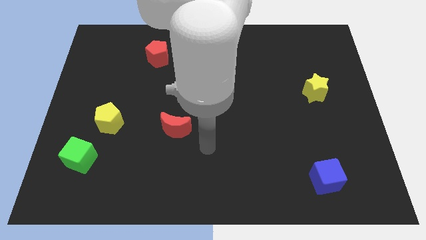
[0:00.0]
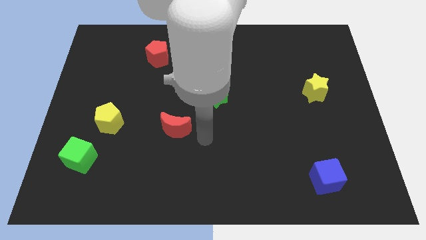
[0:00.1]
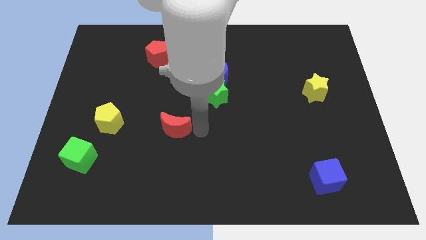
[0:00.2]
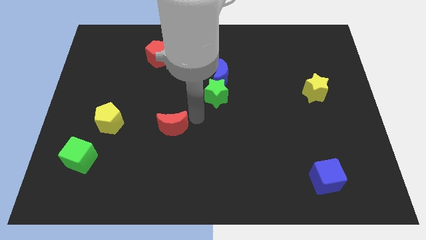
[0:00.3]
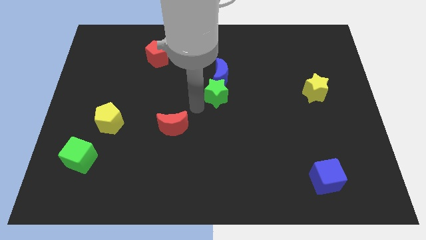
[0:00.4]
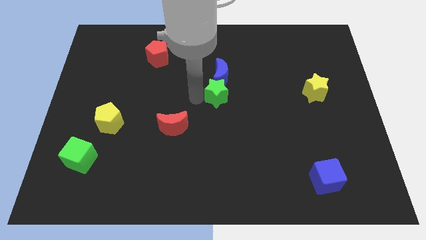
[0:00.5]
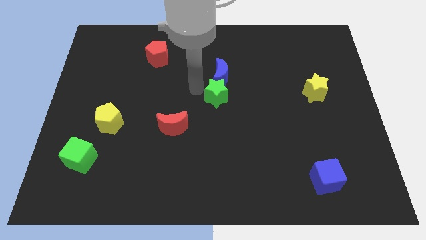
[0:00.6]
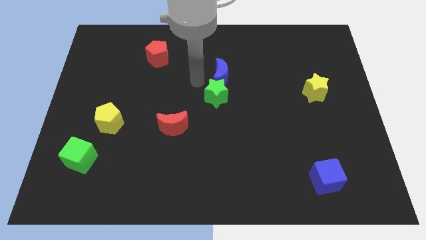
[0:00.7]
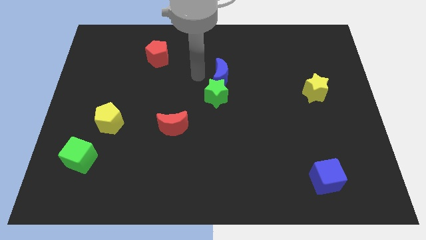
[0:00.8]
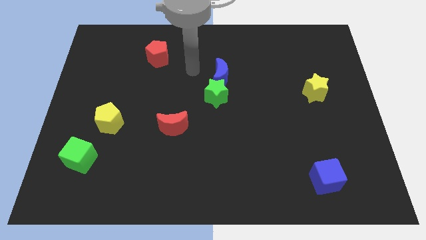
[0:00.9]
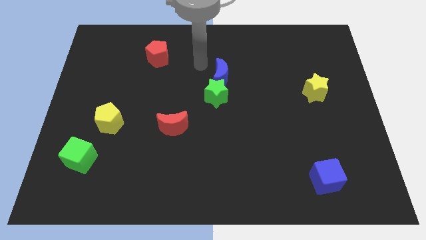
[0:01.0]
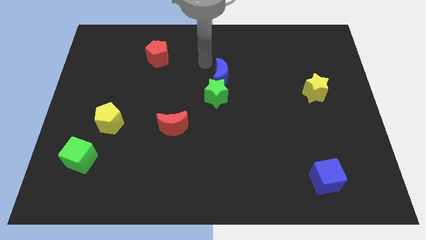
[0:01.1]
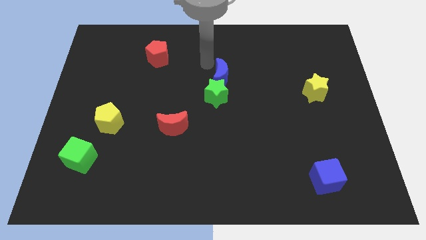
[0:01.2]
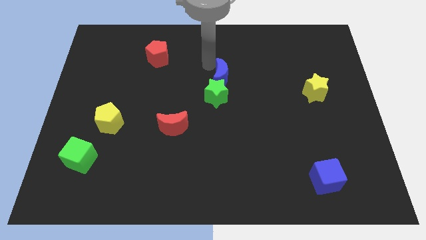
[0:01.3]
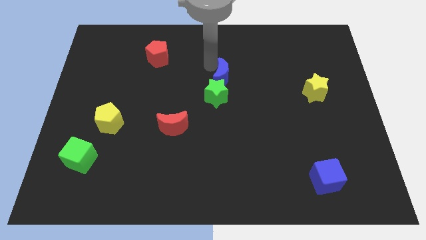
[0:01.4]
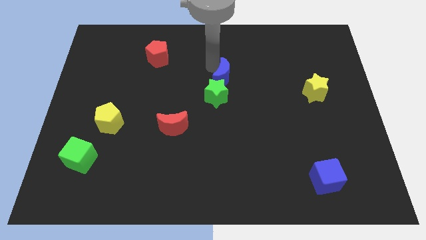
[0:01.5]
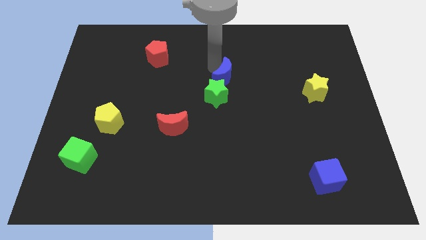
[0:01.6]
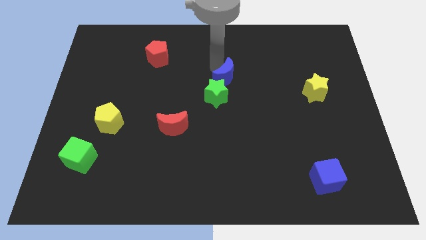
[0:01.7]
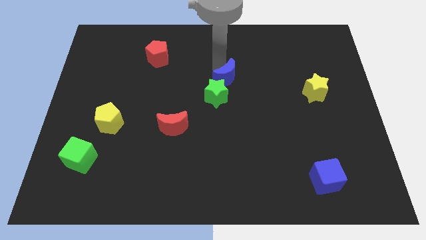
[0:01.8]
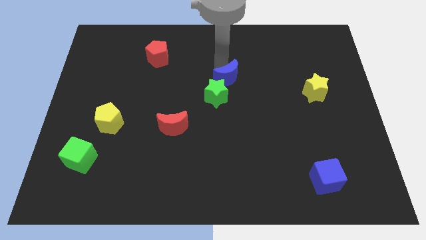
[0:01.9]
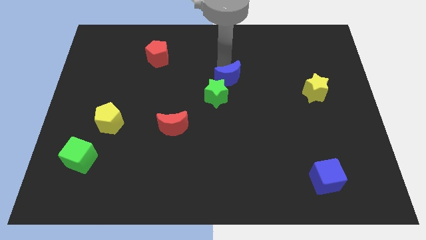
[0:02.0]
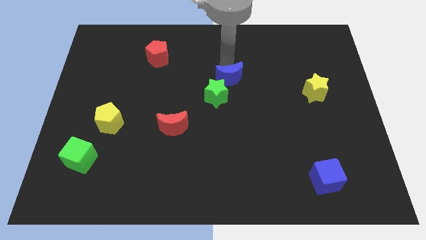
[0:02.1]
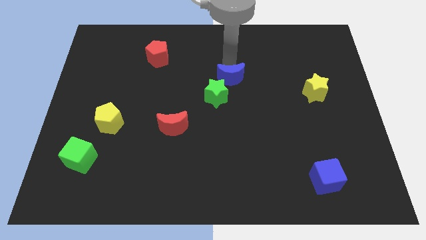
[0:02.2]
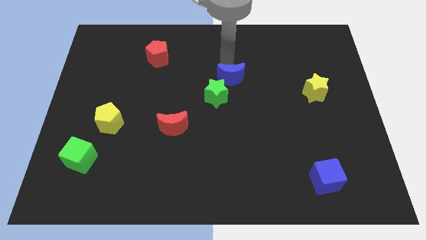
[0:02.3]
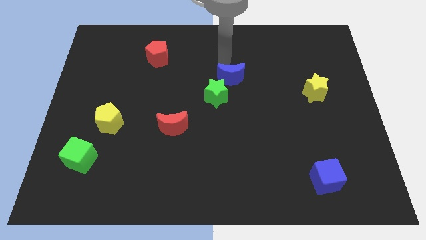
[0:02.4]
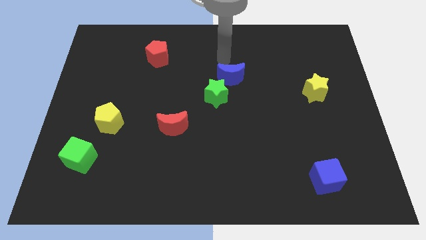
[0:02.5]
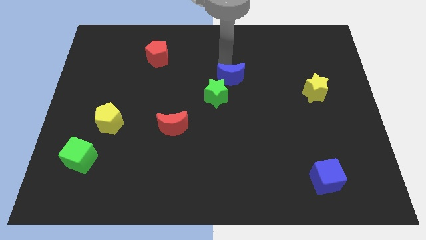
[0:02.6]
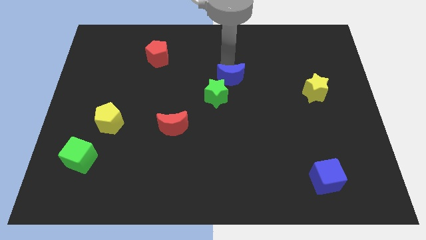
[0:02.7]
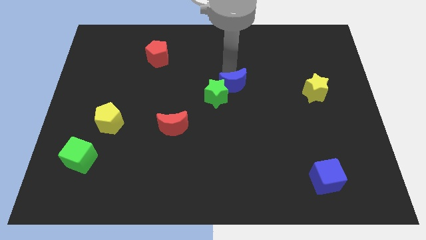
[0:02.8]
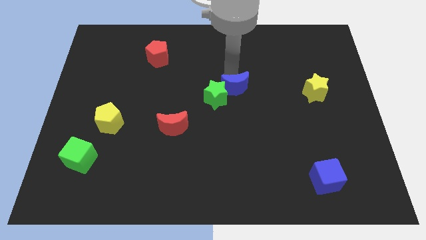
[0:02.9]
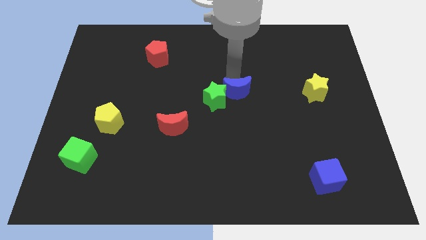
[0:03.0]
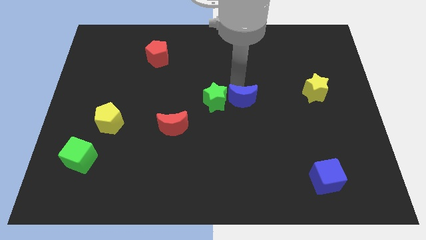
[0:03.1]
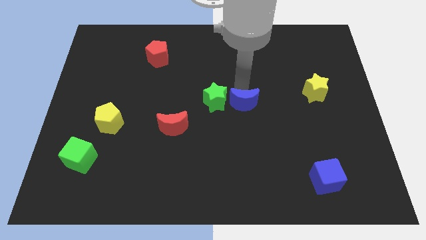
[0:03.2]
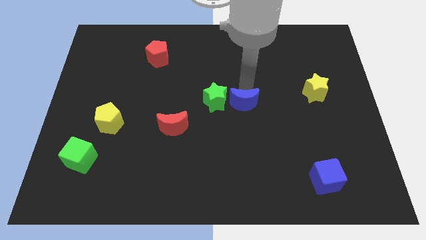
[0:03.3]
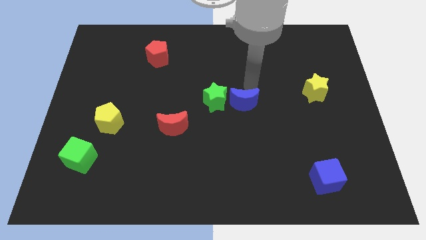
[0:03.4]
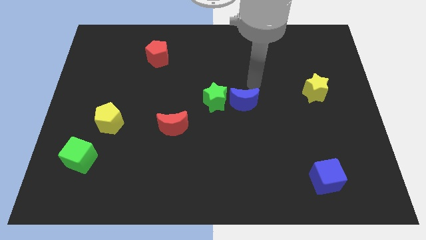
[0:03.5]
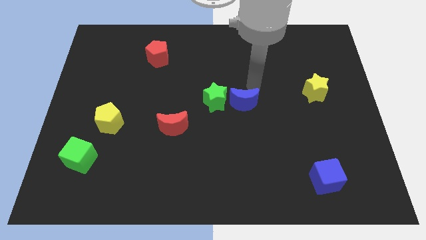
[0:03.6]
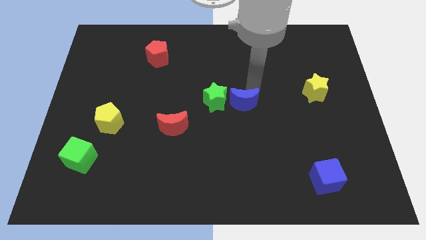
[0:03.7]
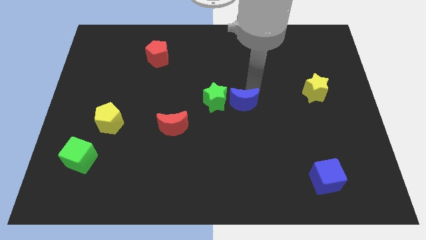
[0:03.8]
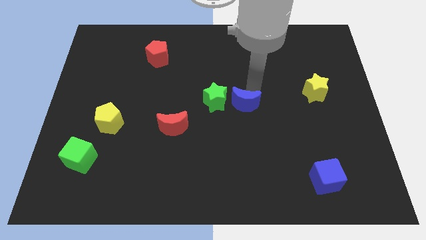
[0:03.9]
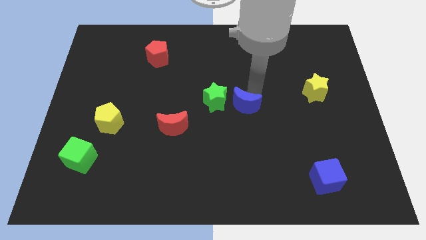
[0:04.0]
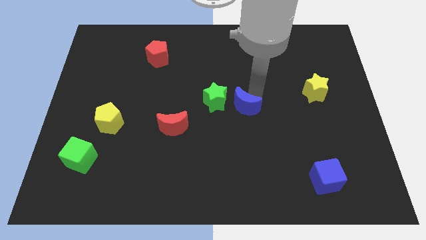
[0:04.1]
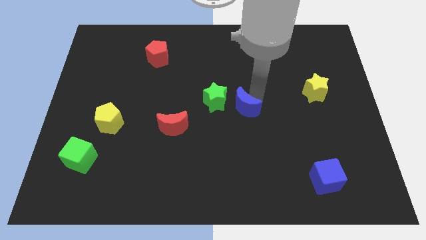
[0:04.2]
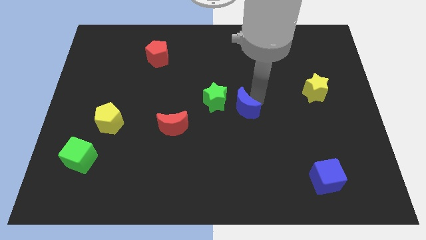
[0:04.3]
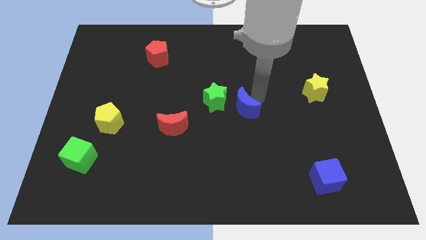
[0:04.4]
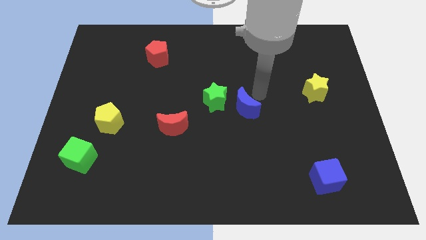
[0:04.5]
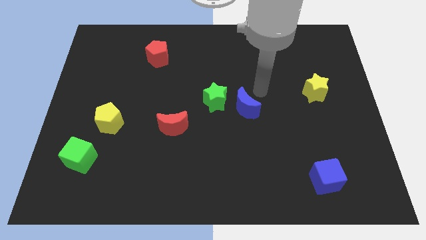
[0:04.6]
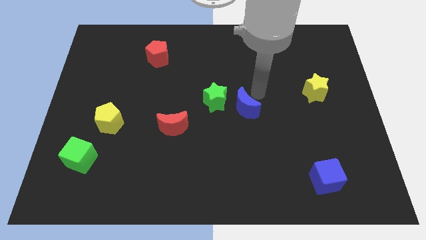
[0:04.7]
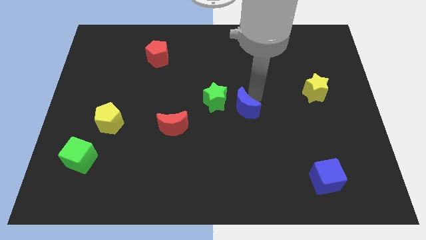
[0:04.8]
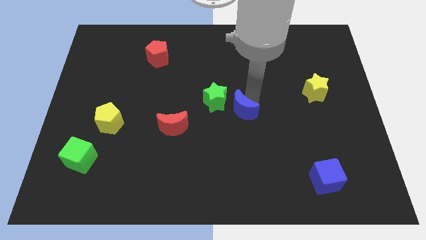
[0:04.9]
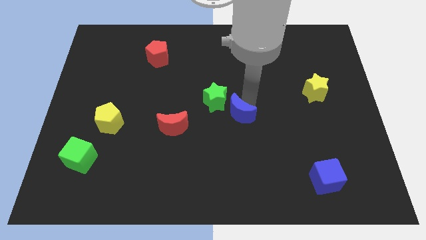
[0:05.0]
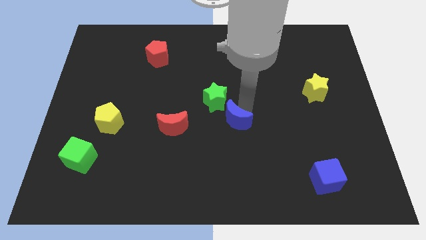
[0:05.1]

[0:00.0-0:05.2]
slide the blue moon to the right side of the red moon

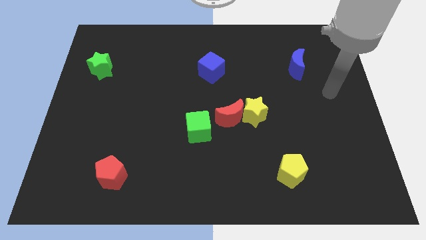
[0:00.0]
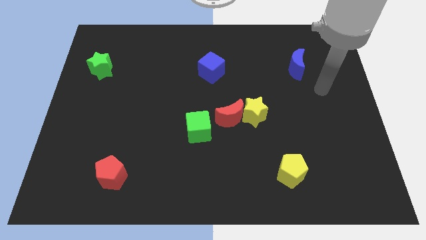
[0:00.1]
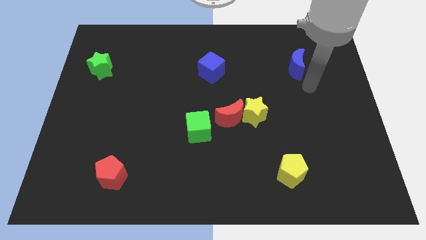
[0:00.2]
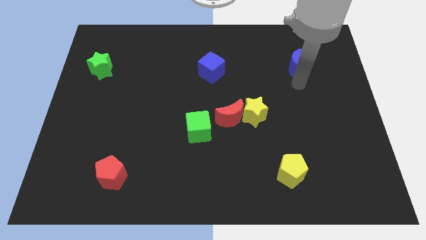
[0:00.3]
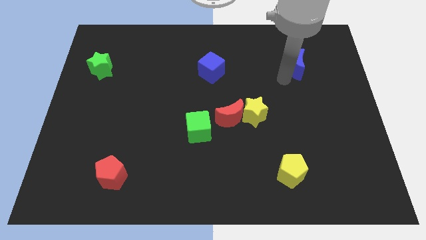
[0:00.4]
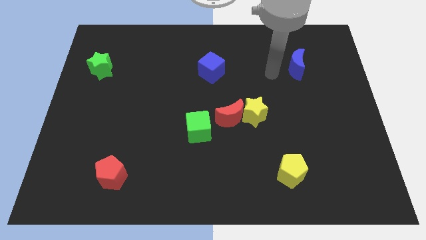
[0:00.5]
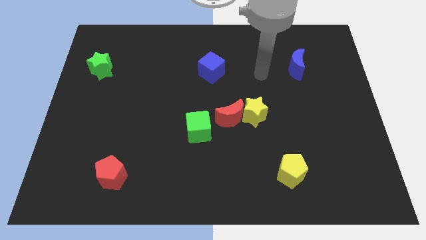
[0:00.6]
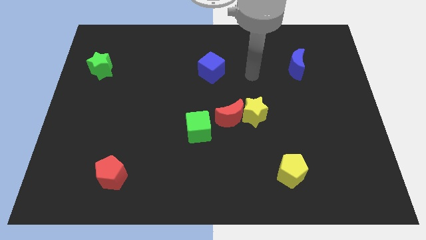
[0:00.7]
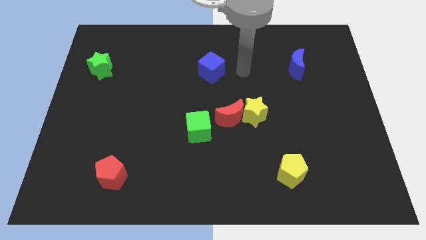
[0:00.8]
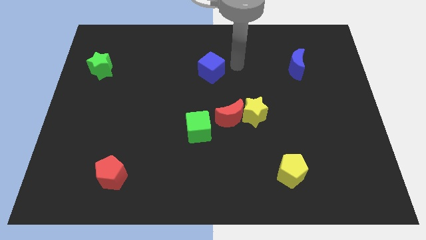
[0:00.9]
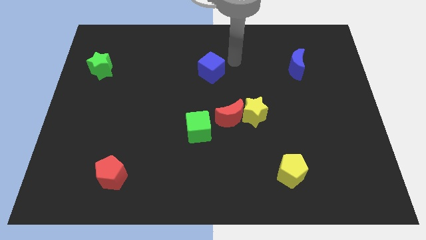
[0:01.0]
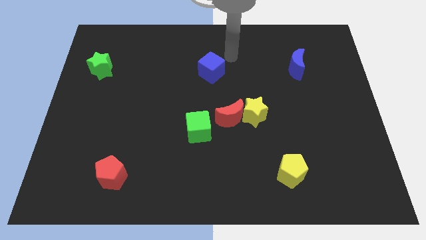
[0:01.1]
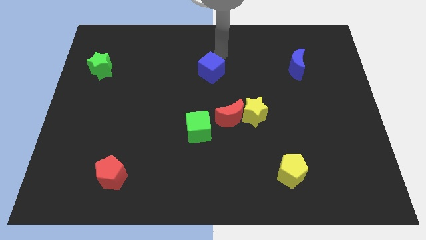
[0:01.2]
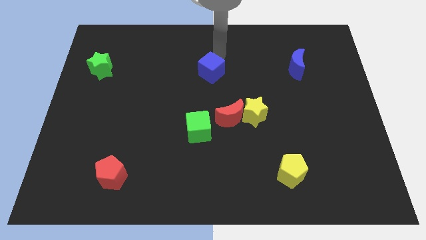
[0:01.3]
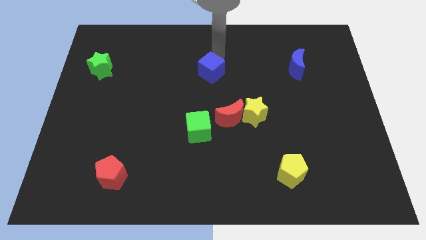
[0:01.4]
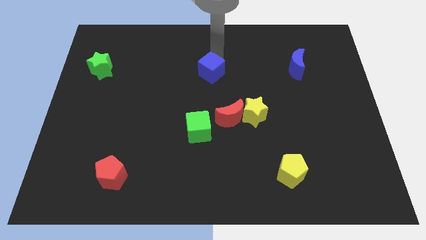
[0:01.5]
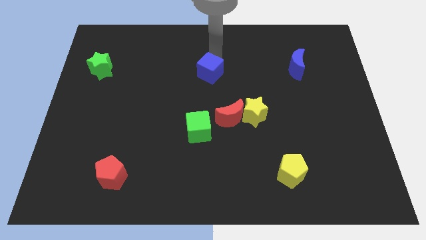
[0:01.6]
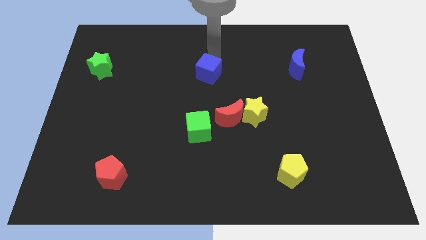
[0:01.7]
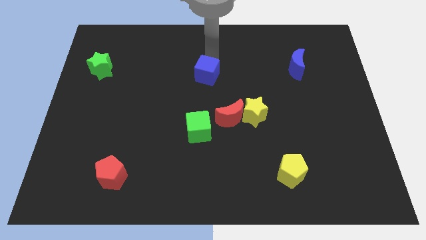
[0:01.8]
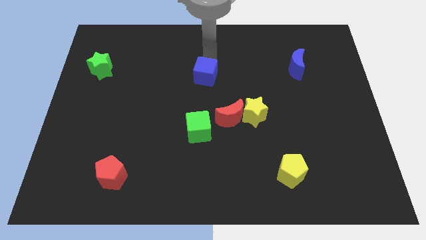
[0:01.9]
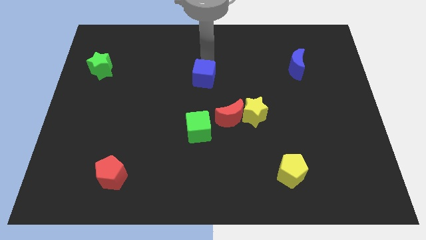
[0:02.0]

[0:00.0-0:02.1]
slide the blue cube above the green cube
